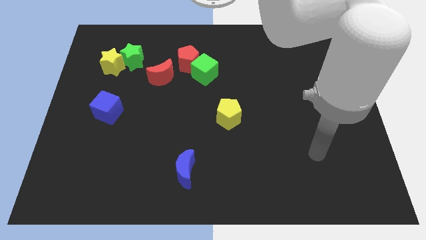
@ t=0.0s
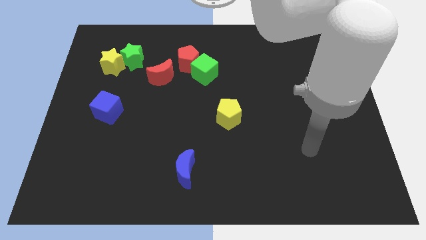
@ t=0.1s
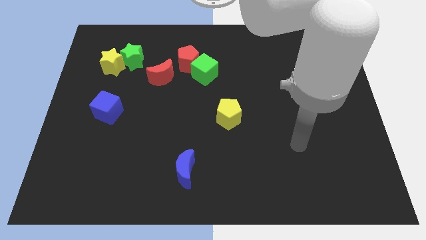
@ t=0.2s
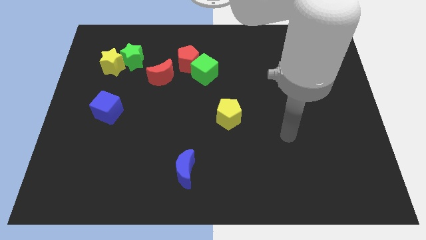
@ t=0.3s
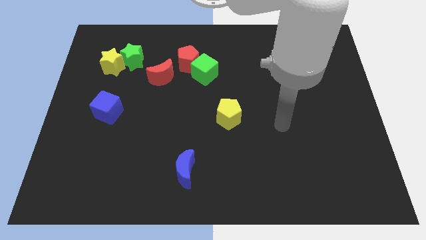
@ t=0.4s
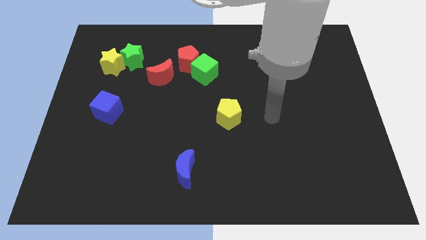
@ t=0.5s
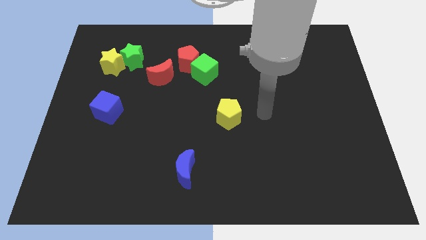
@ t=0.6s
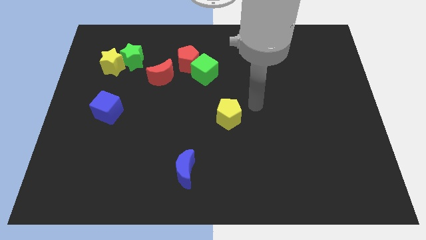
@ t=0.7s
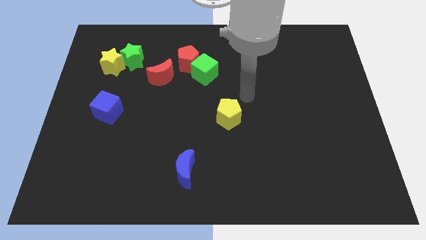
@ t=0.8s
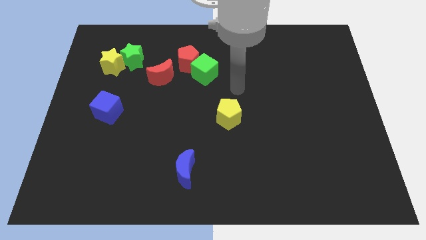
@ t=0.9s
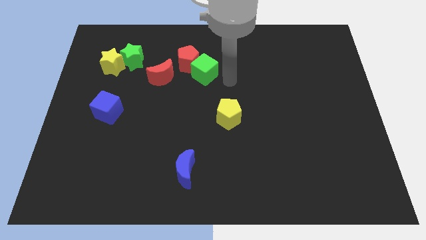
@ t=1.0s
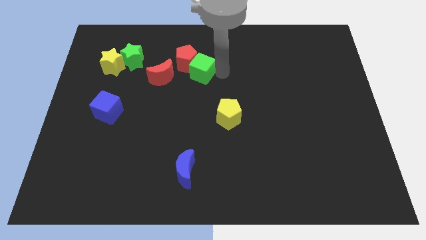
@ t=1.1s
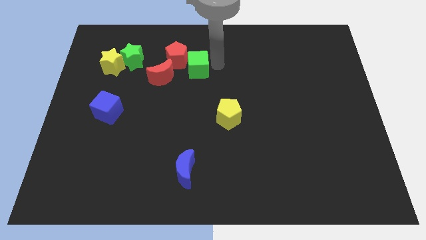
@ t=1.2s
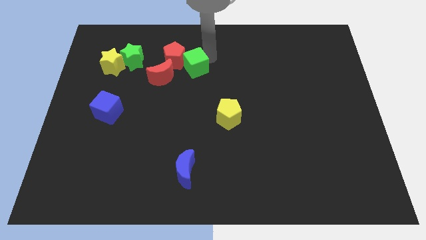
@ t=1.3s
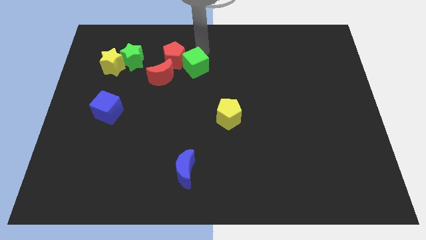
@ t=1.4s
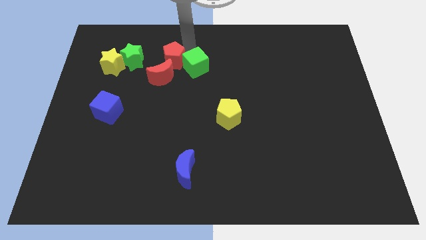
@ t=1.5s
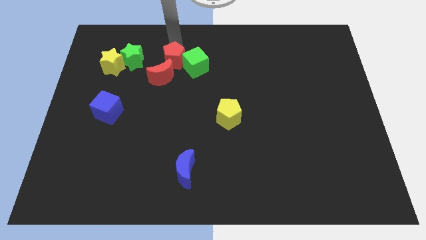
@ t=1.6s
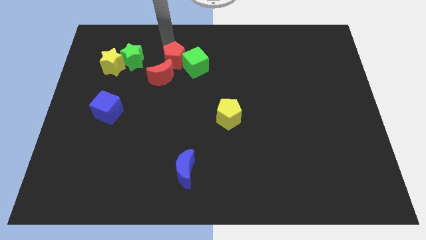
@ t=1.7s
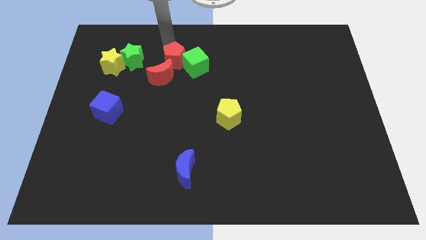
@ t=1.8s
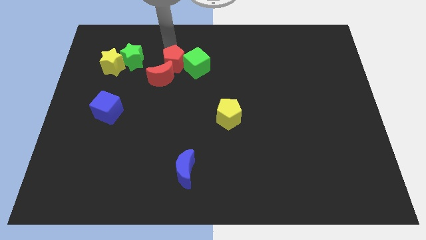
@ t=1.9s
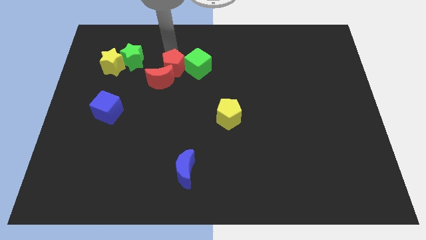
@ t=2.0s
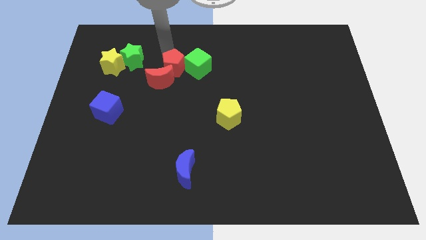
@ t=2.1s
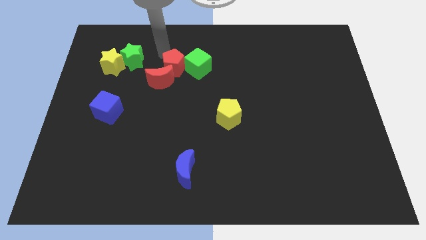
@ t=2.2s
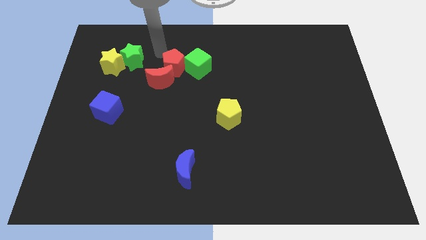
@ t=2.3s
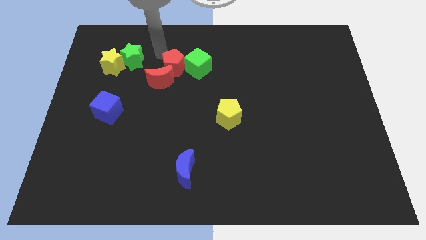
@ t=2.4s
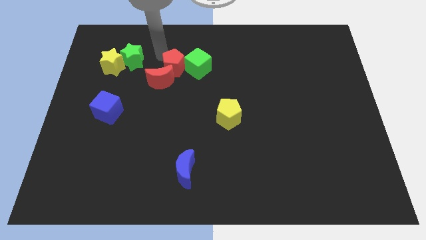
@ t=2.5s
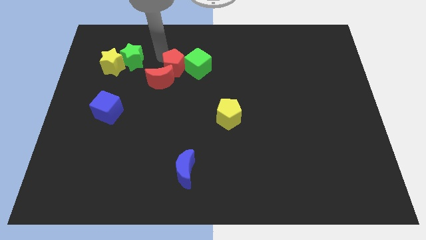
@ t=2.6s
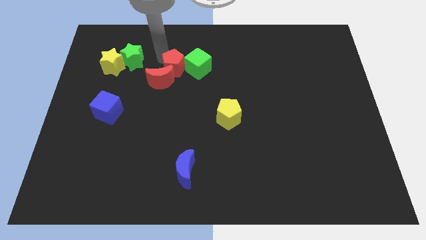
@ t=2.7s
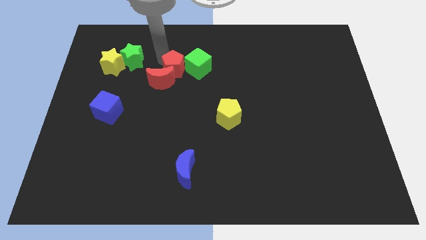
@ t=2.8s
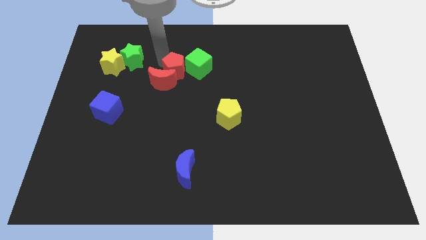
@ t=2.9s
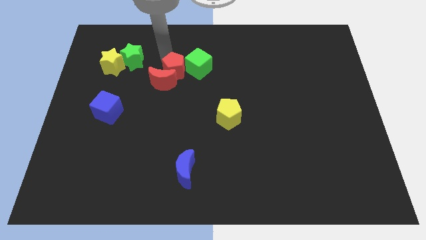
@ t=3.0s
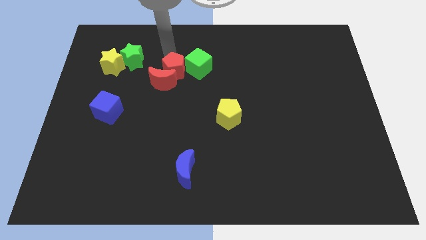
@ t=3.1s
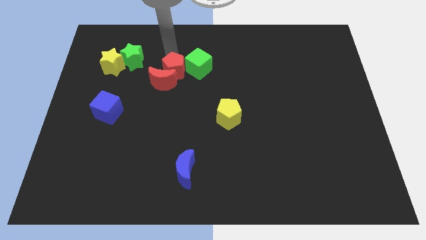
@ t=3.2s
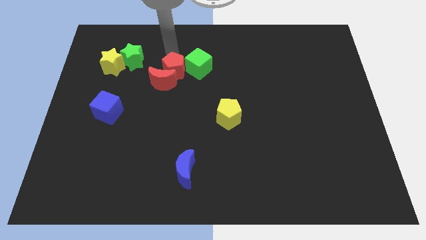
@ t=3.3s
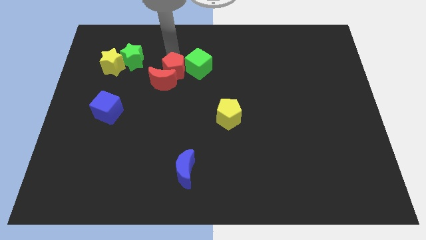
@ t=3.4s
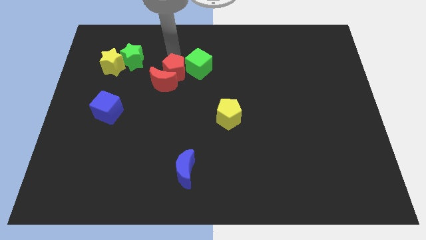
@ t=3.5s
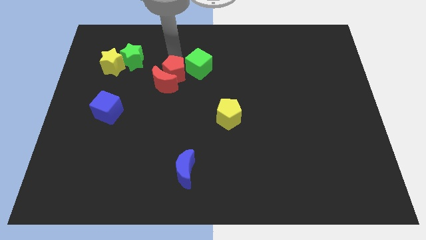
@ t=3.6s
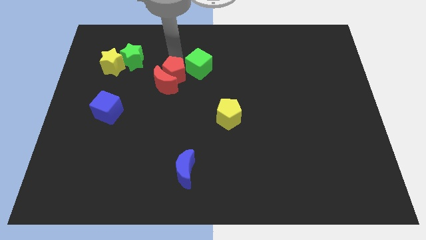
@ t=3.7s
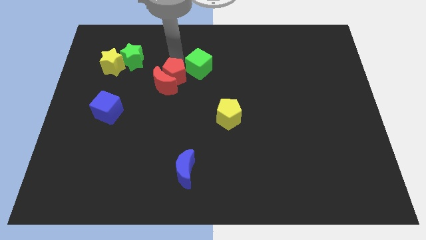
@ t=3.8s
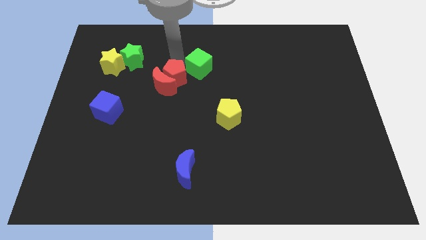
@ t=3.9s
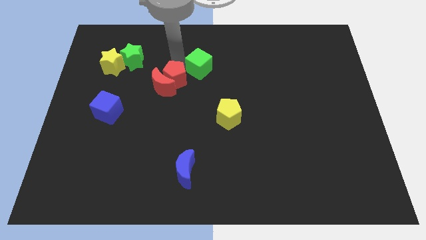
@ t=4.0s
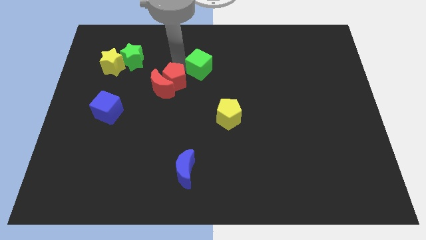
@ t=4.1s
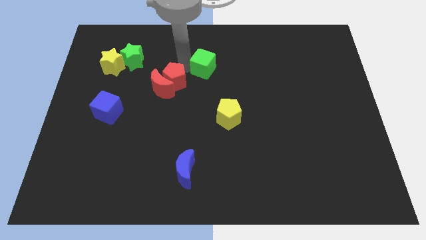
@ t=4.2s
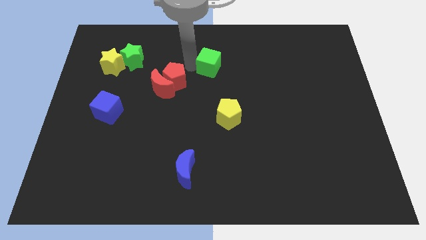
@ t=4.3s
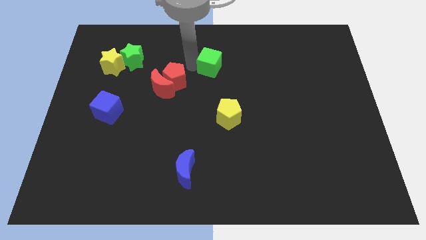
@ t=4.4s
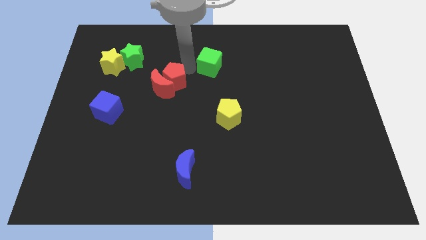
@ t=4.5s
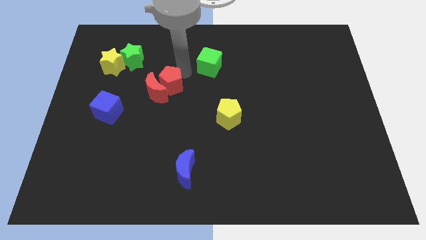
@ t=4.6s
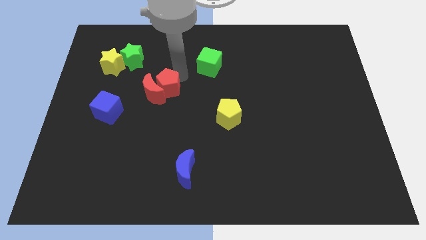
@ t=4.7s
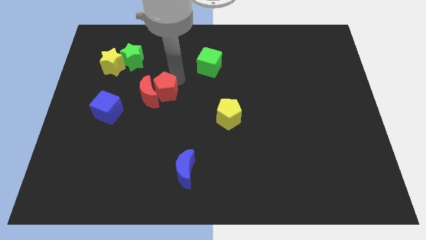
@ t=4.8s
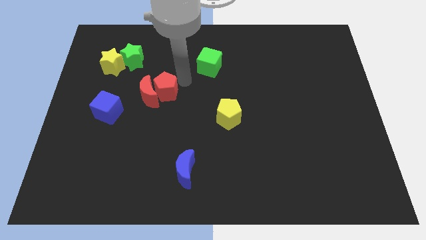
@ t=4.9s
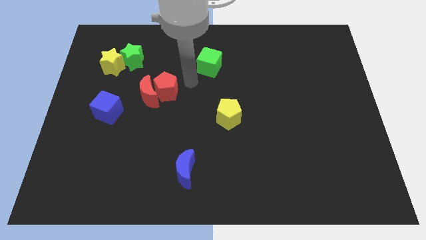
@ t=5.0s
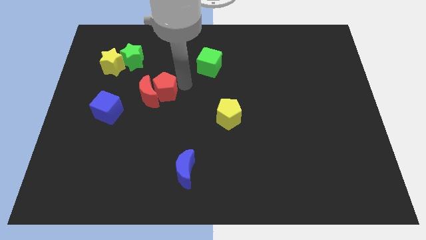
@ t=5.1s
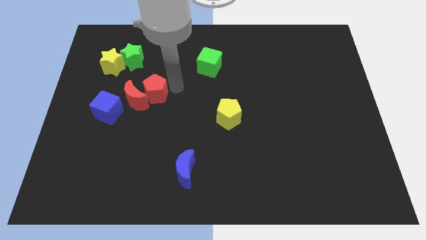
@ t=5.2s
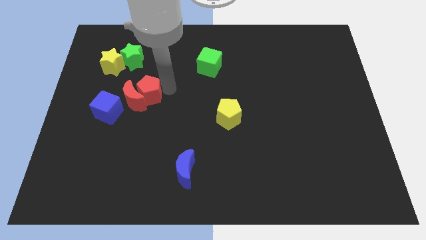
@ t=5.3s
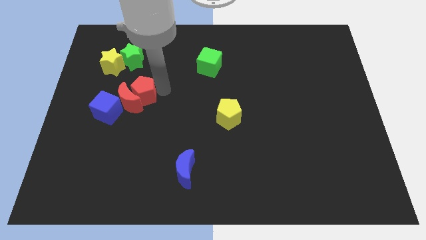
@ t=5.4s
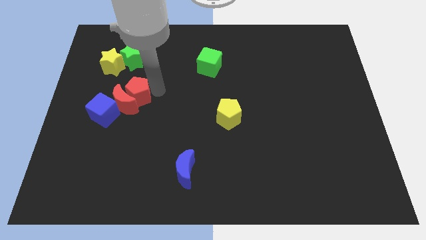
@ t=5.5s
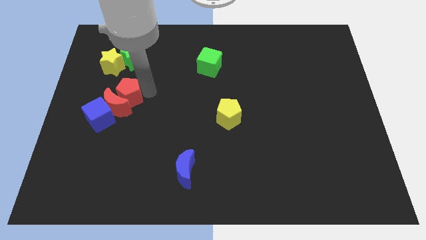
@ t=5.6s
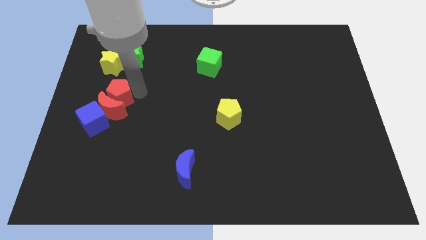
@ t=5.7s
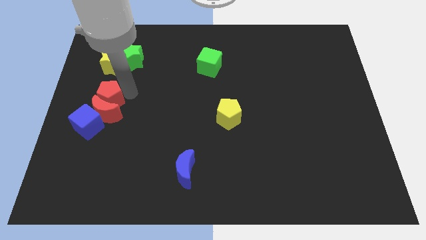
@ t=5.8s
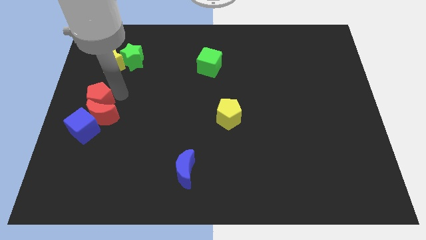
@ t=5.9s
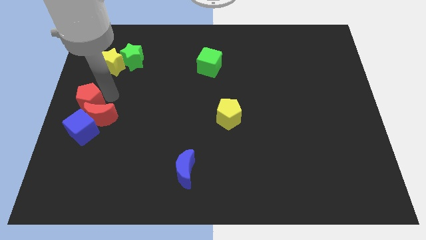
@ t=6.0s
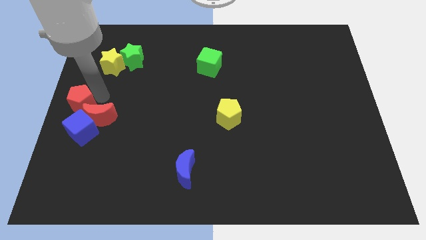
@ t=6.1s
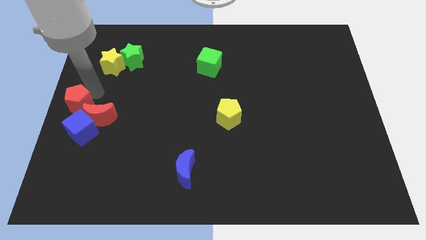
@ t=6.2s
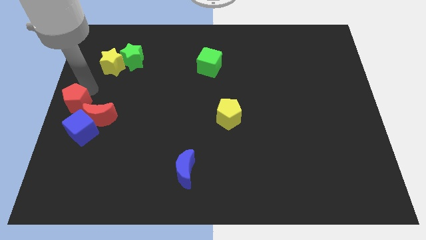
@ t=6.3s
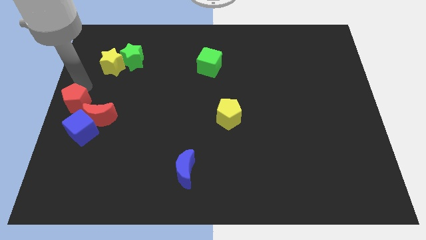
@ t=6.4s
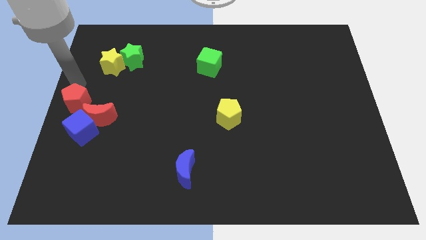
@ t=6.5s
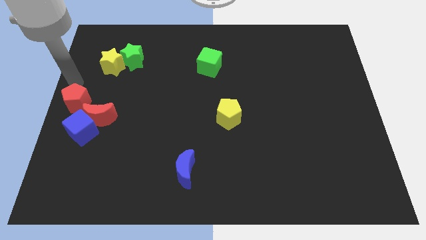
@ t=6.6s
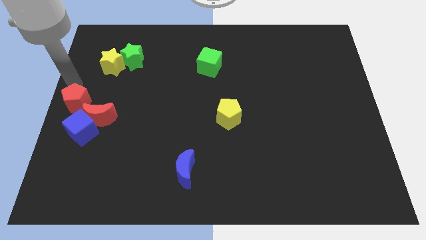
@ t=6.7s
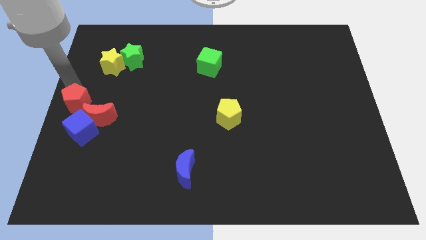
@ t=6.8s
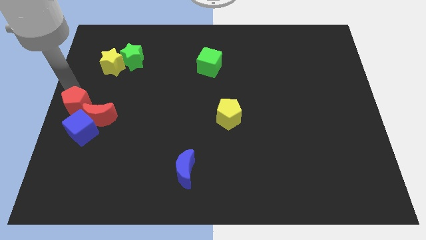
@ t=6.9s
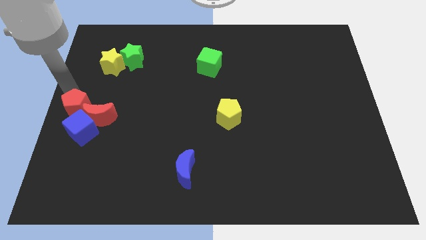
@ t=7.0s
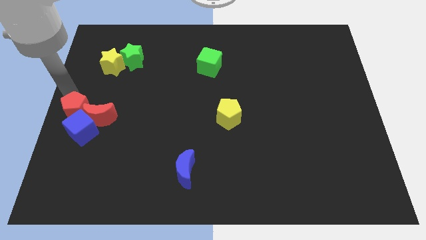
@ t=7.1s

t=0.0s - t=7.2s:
put the red pentagon next to the blue cube
